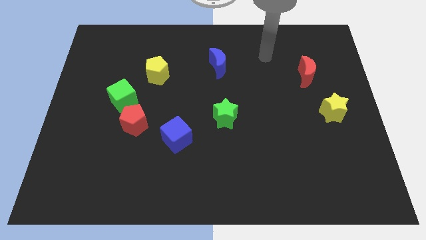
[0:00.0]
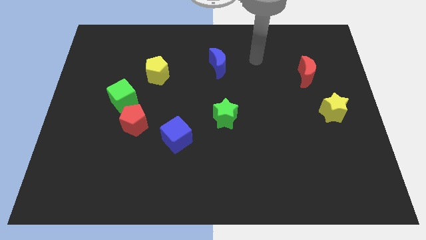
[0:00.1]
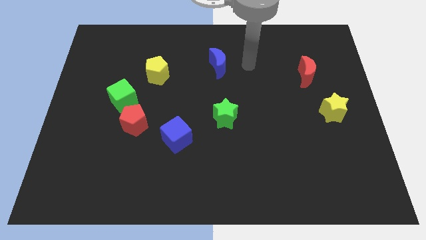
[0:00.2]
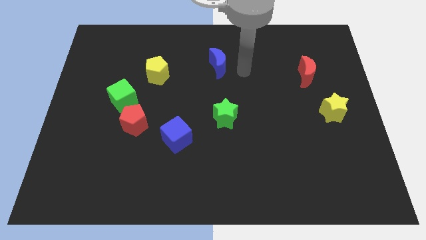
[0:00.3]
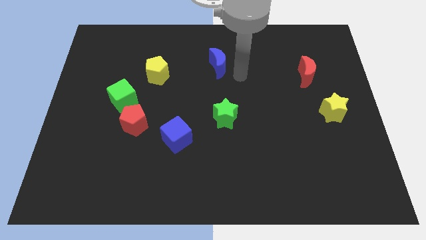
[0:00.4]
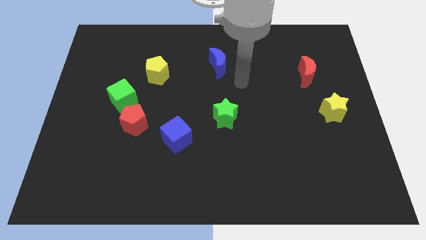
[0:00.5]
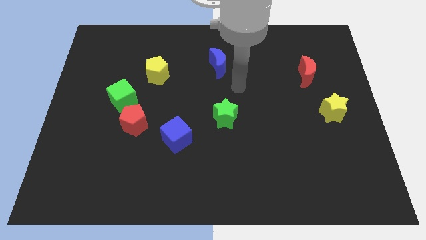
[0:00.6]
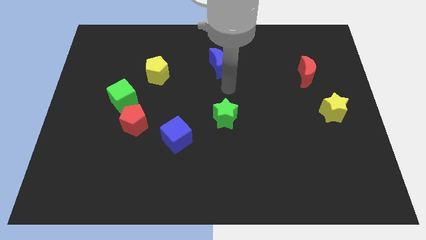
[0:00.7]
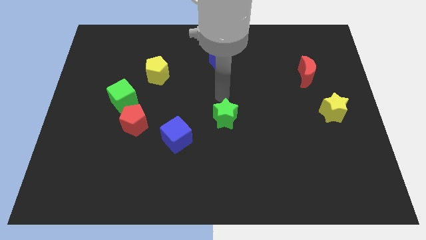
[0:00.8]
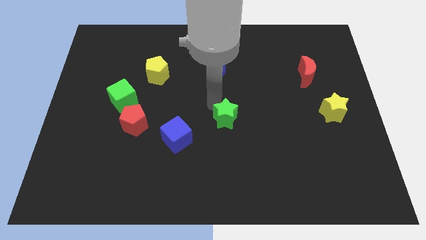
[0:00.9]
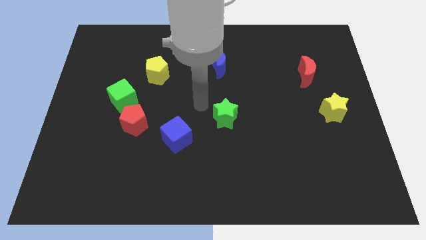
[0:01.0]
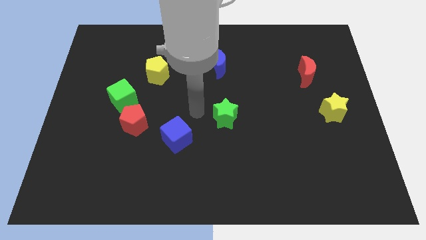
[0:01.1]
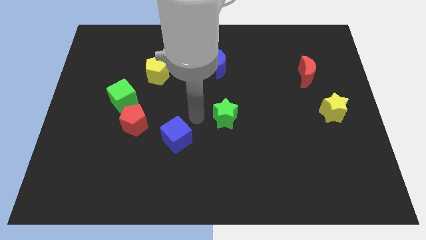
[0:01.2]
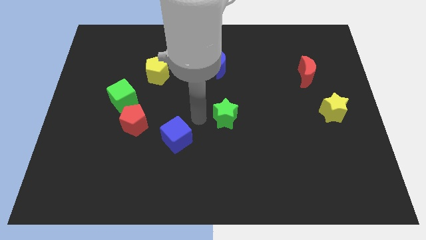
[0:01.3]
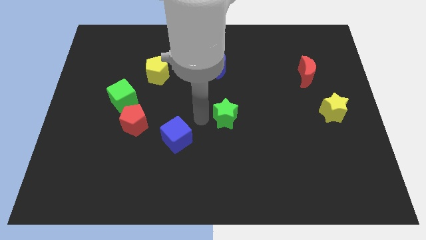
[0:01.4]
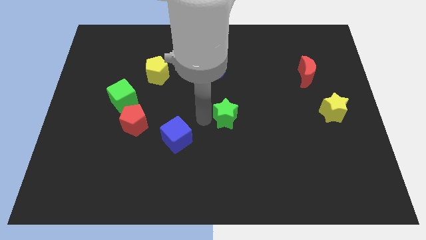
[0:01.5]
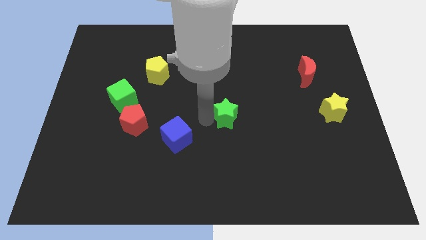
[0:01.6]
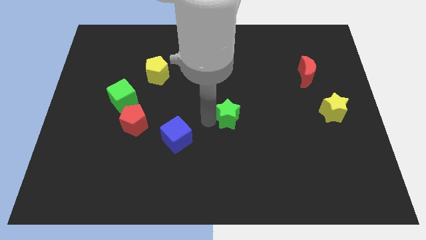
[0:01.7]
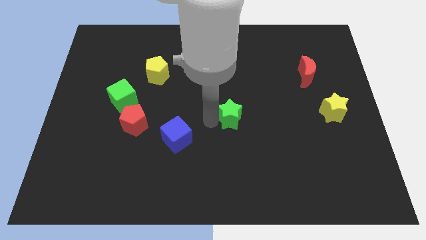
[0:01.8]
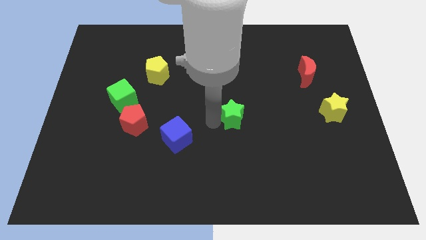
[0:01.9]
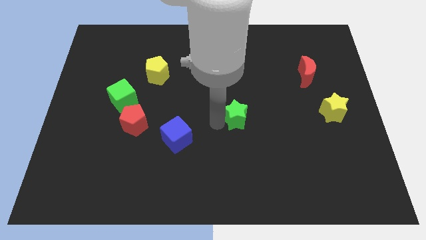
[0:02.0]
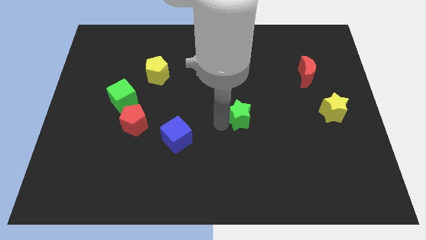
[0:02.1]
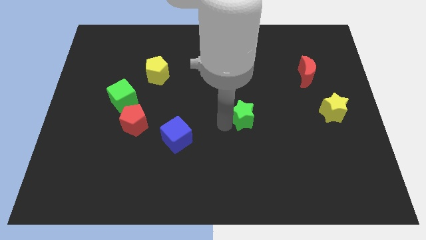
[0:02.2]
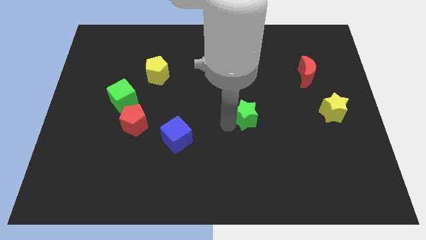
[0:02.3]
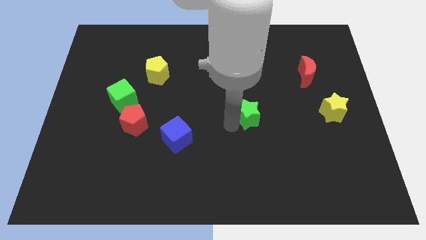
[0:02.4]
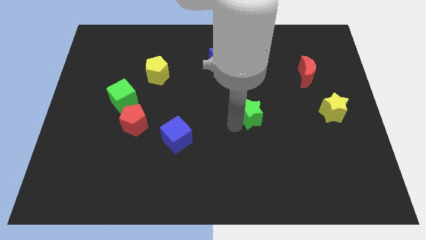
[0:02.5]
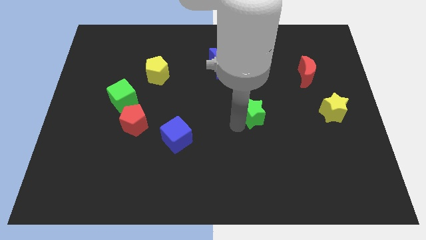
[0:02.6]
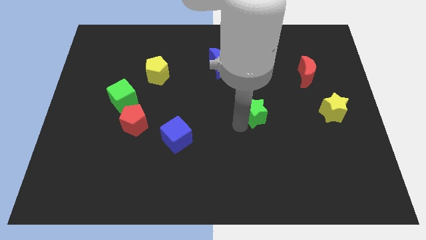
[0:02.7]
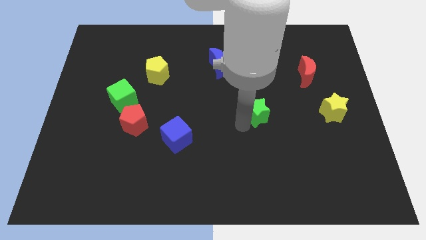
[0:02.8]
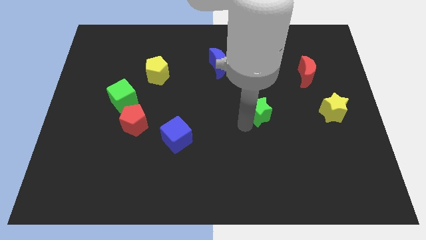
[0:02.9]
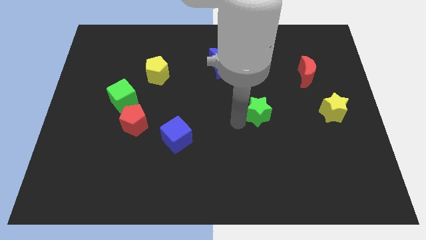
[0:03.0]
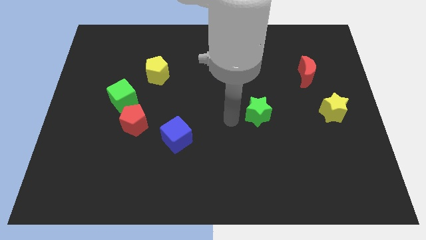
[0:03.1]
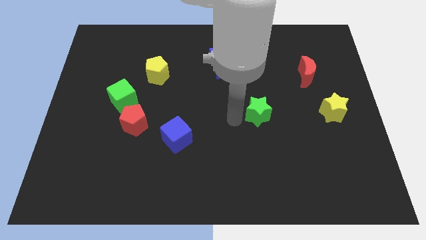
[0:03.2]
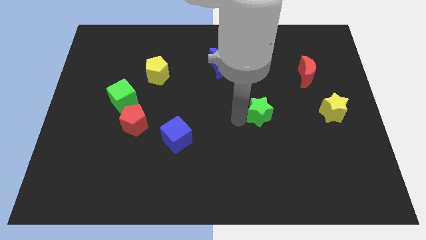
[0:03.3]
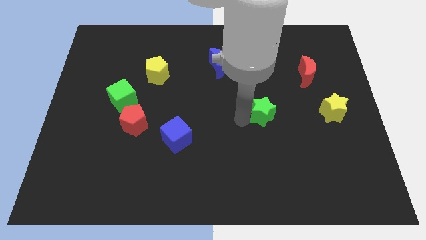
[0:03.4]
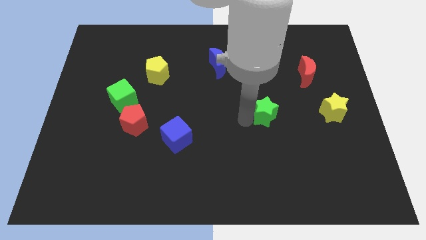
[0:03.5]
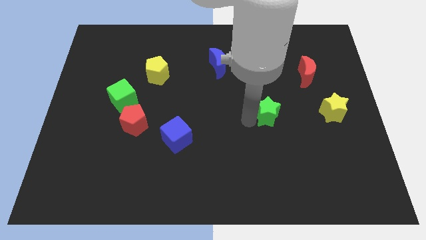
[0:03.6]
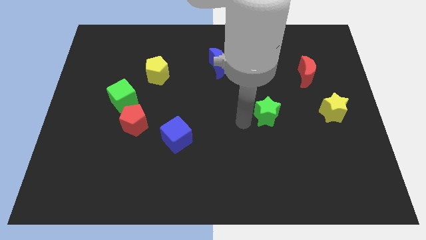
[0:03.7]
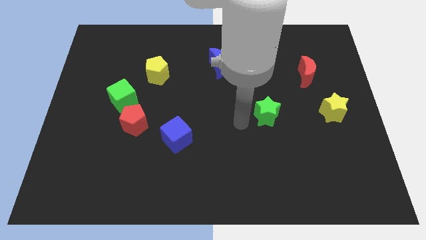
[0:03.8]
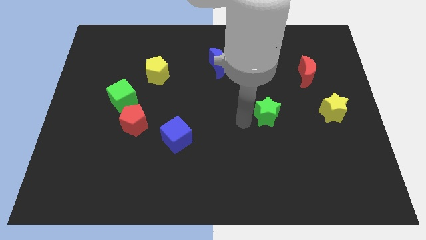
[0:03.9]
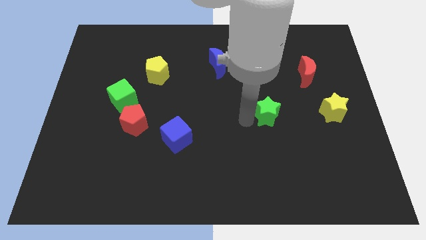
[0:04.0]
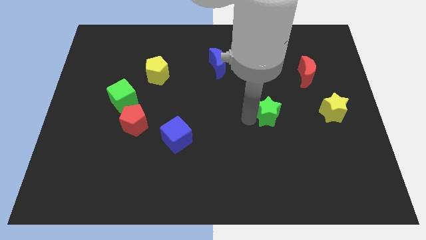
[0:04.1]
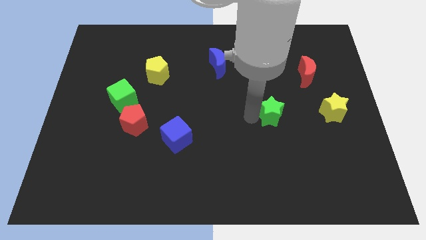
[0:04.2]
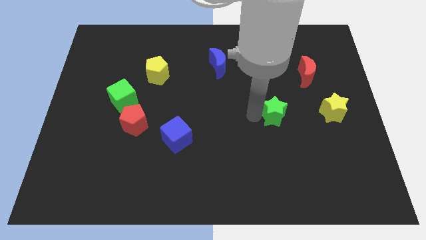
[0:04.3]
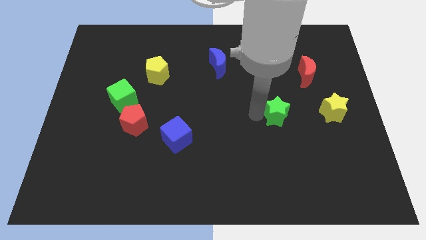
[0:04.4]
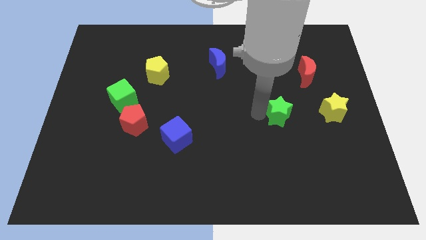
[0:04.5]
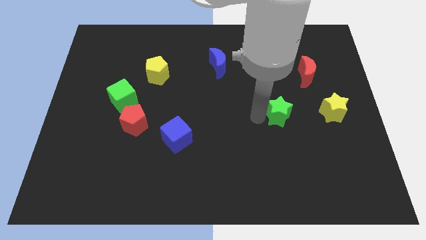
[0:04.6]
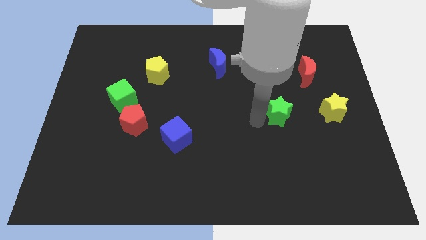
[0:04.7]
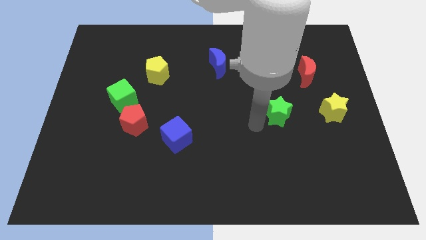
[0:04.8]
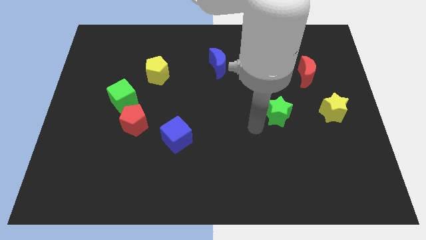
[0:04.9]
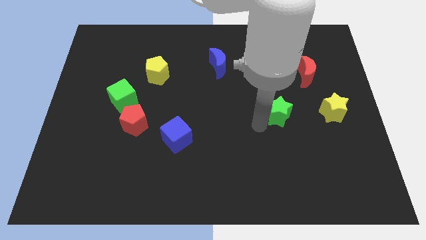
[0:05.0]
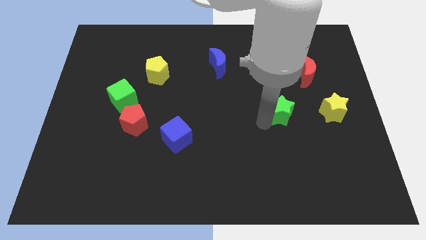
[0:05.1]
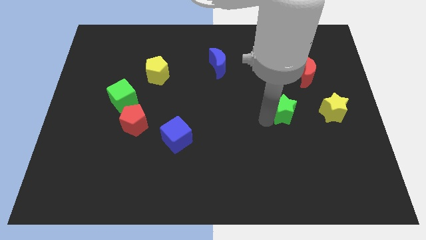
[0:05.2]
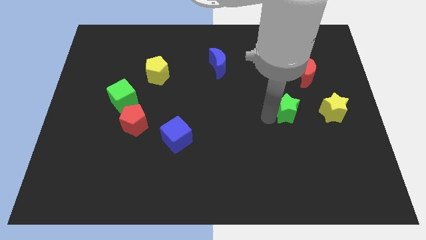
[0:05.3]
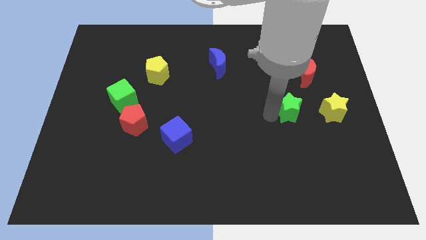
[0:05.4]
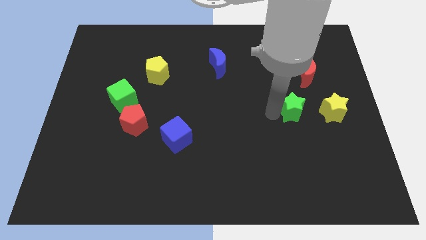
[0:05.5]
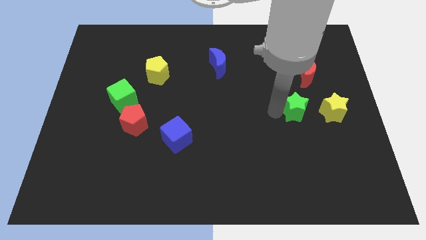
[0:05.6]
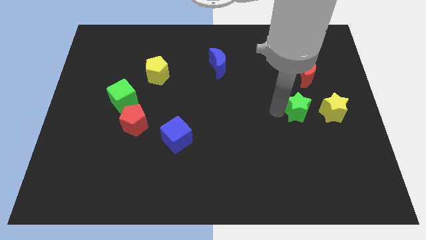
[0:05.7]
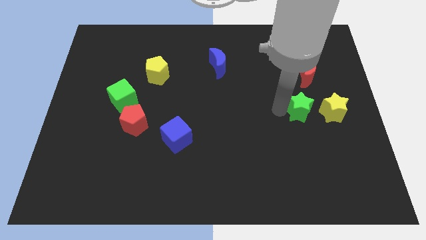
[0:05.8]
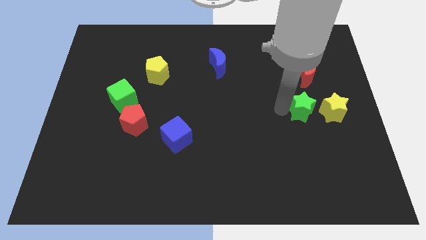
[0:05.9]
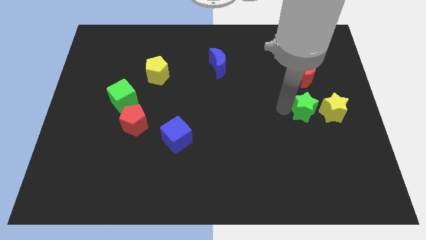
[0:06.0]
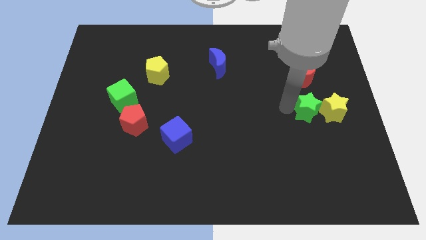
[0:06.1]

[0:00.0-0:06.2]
move the green star to the yellow star

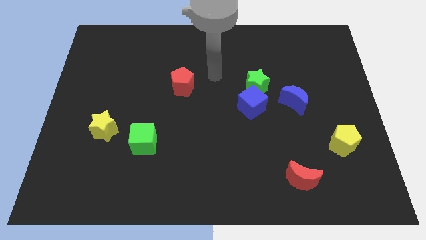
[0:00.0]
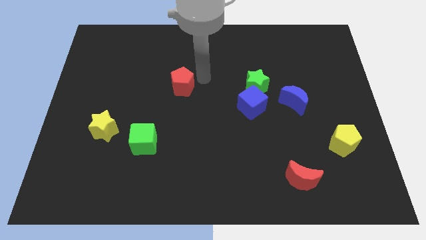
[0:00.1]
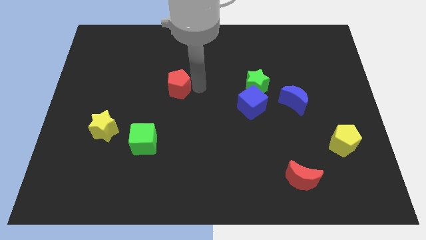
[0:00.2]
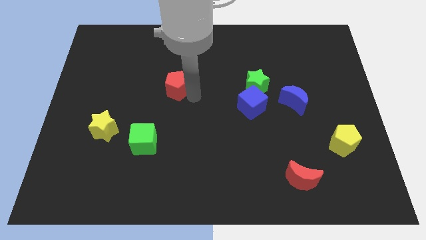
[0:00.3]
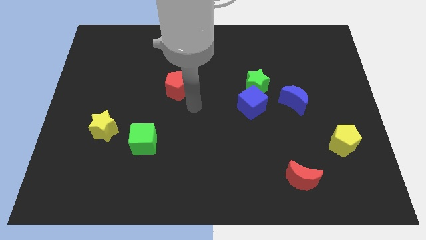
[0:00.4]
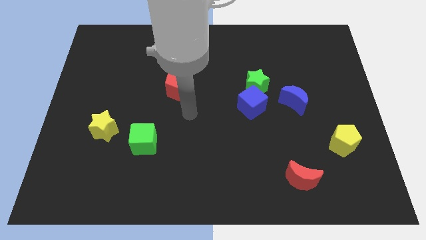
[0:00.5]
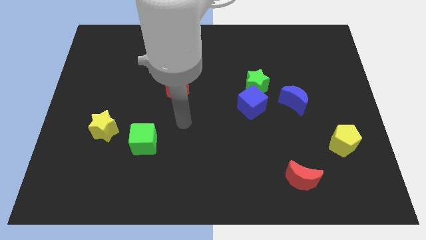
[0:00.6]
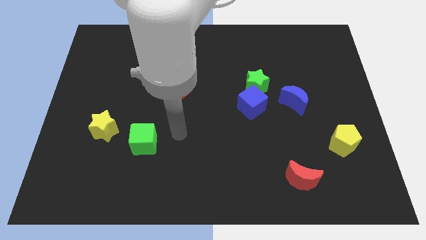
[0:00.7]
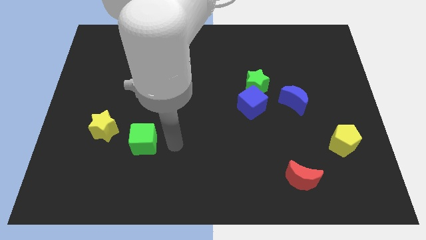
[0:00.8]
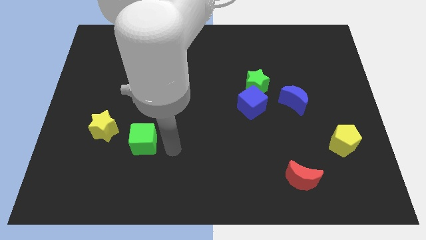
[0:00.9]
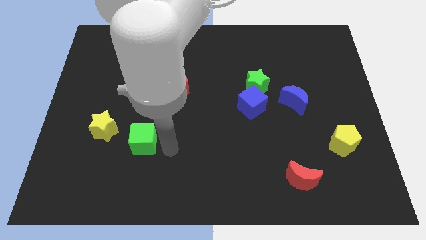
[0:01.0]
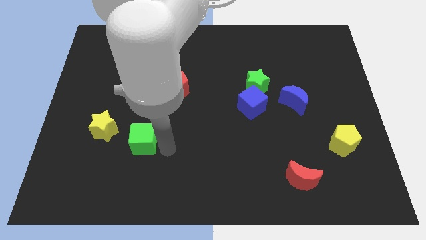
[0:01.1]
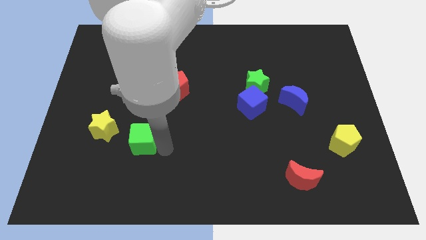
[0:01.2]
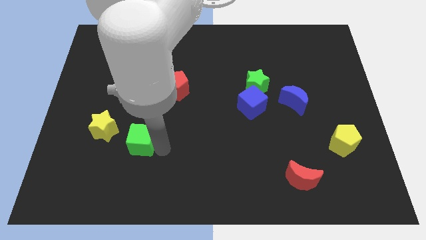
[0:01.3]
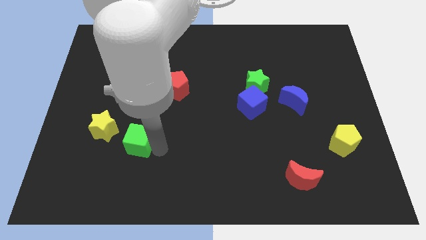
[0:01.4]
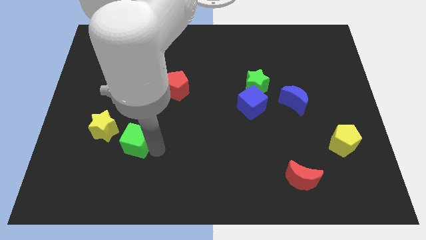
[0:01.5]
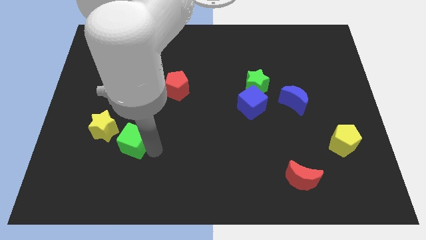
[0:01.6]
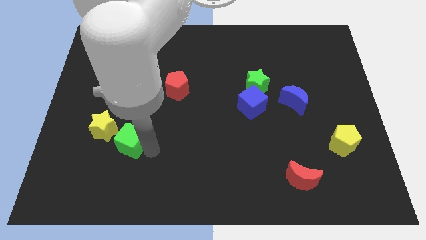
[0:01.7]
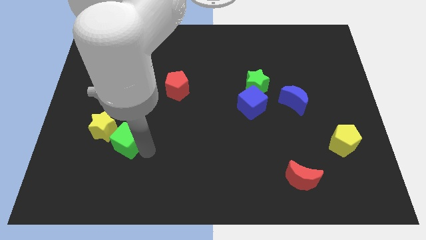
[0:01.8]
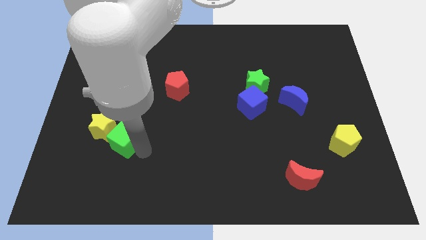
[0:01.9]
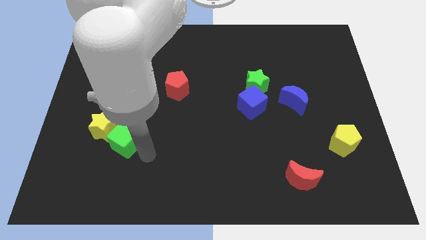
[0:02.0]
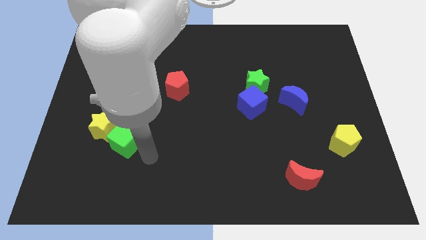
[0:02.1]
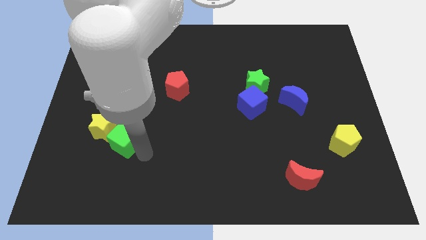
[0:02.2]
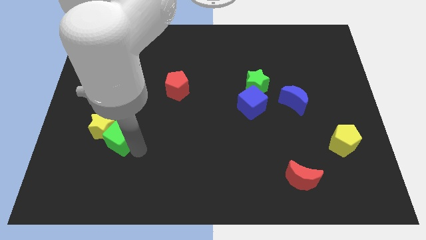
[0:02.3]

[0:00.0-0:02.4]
push the green cube next to the yellow star
